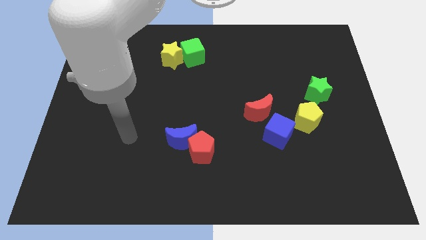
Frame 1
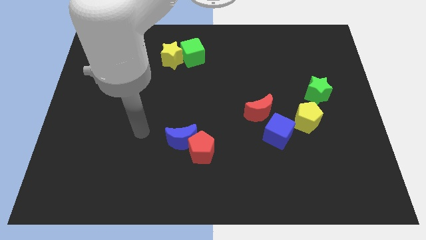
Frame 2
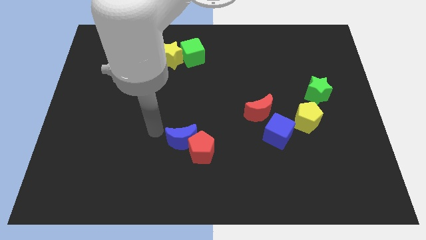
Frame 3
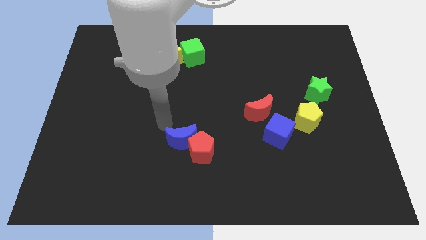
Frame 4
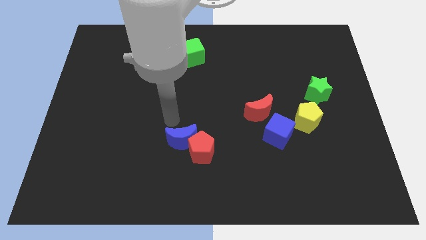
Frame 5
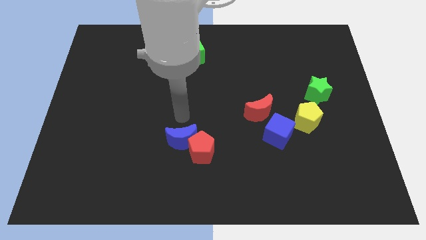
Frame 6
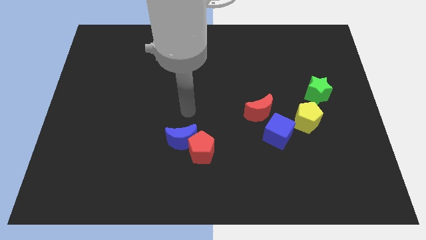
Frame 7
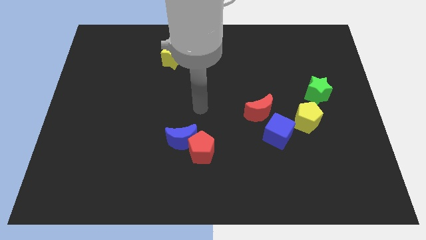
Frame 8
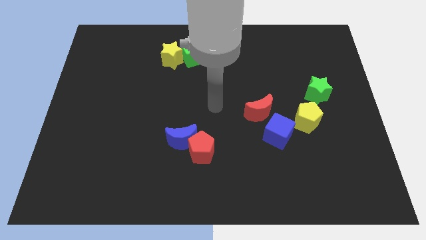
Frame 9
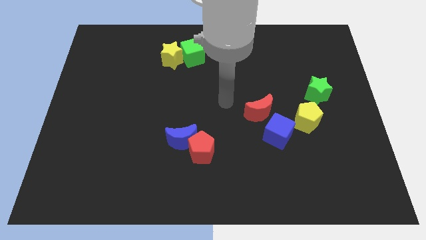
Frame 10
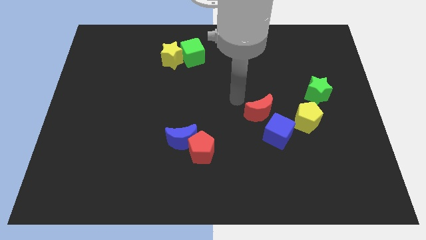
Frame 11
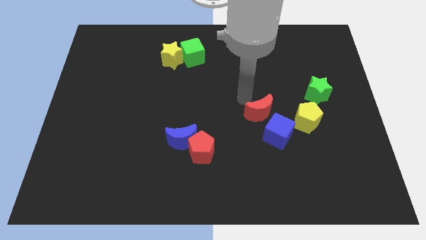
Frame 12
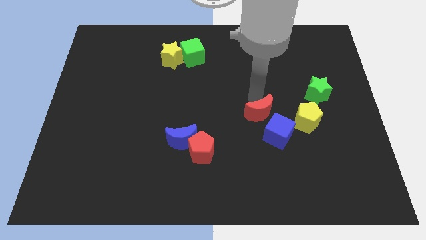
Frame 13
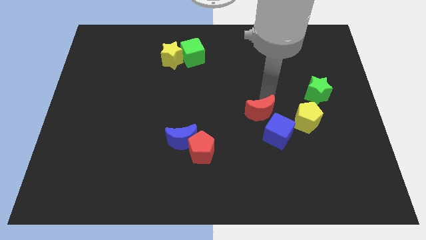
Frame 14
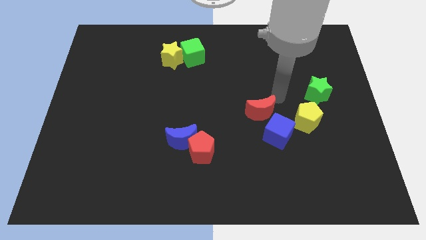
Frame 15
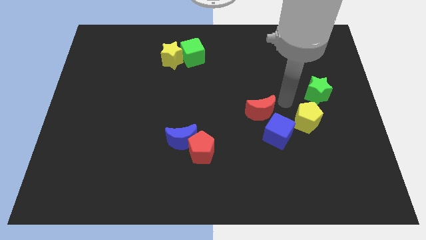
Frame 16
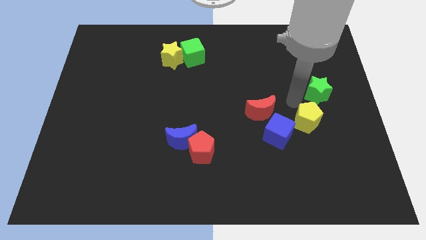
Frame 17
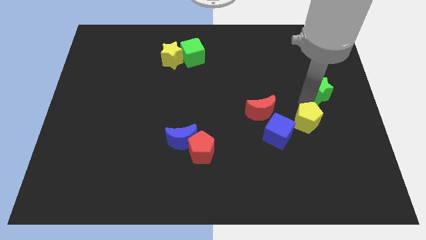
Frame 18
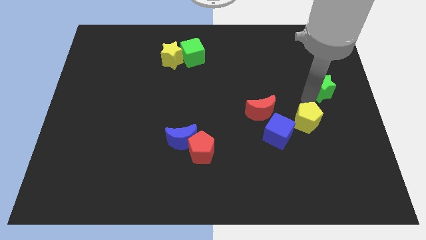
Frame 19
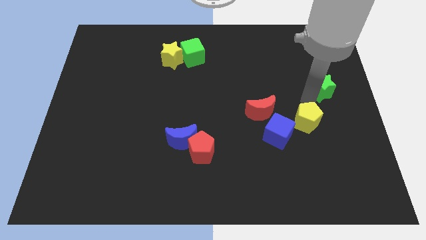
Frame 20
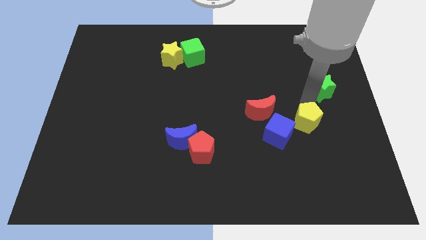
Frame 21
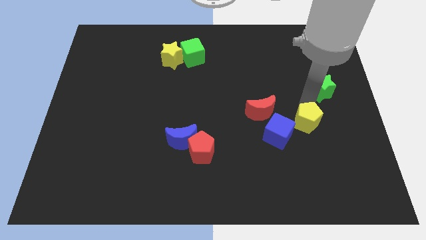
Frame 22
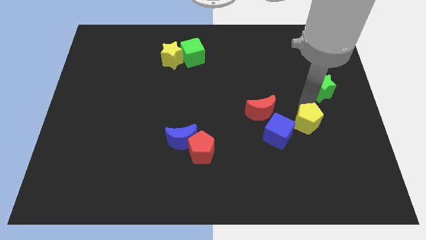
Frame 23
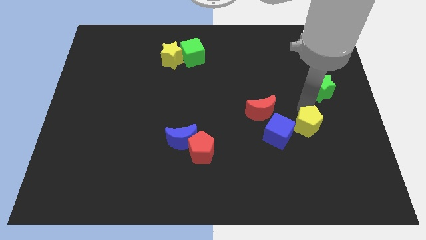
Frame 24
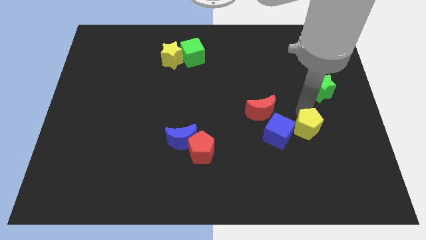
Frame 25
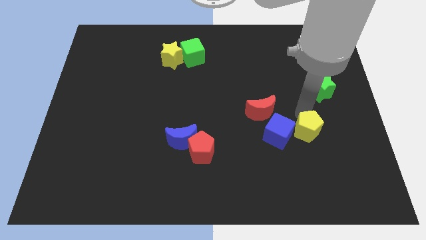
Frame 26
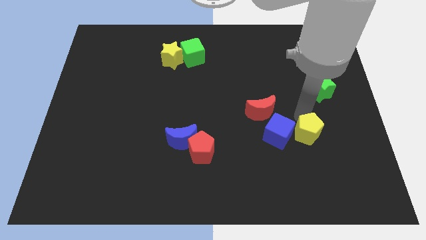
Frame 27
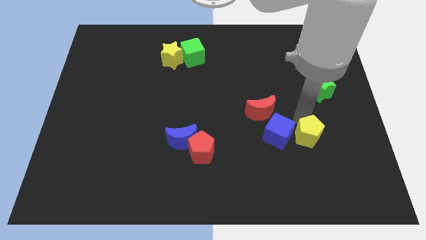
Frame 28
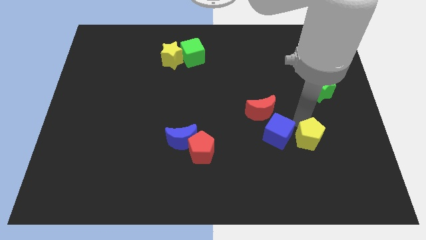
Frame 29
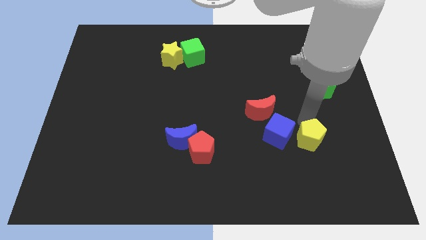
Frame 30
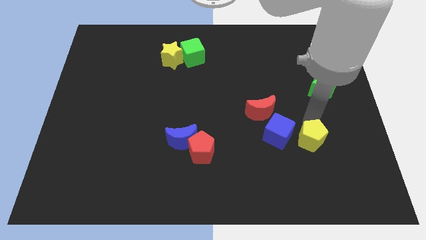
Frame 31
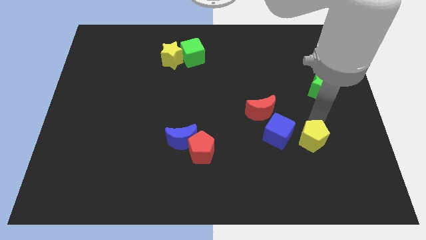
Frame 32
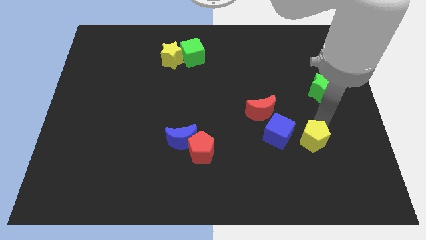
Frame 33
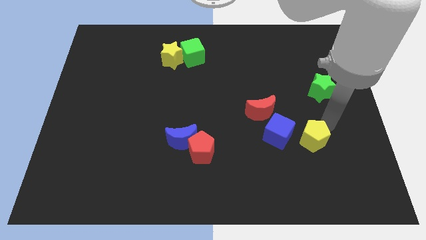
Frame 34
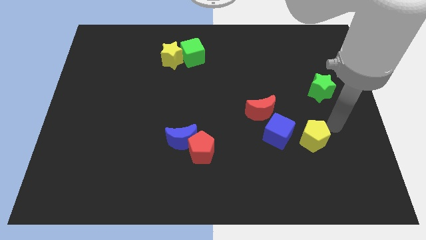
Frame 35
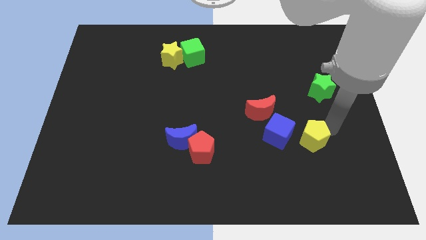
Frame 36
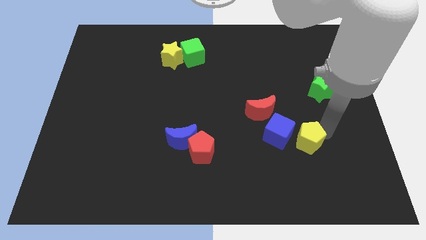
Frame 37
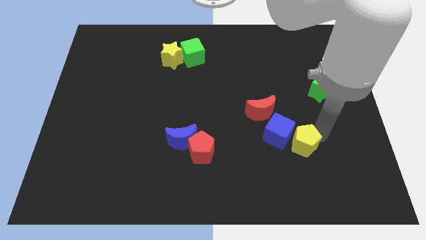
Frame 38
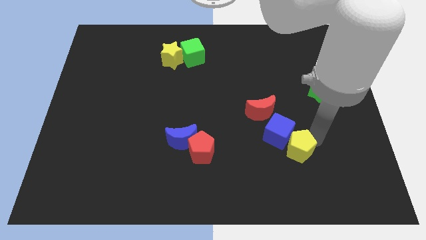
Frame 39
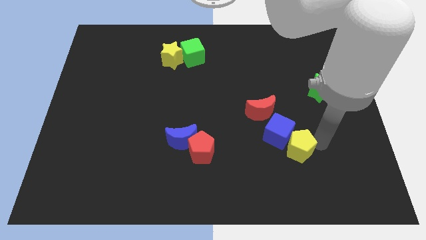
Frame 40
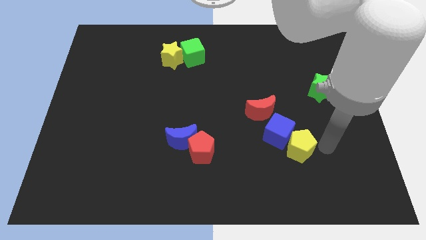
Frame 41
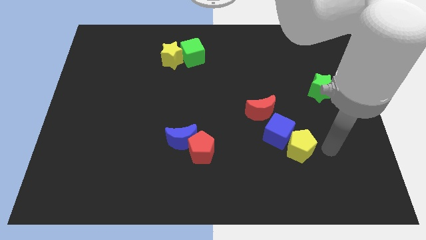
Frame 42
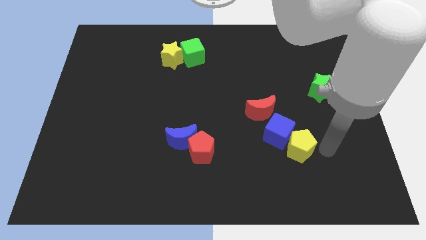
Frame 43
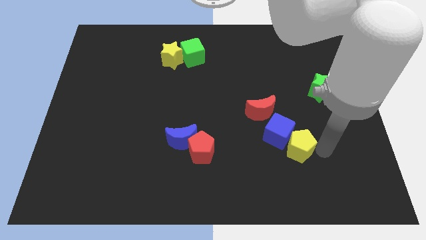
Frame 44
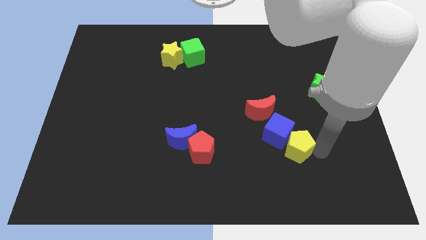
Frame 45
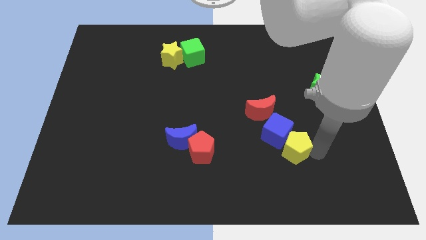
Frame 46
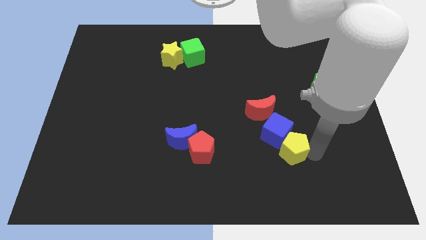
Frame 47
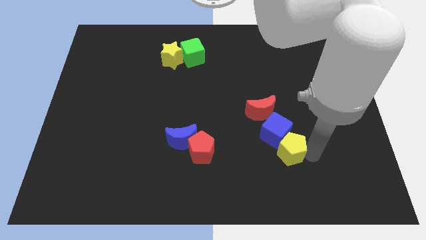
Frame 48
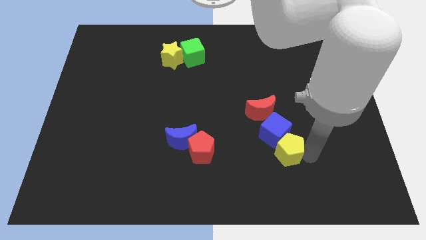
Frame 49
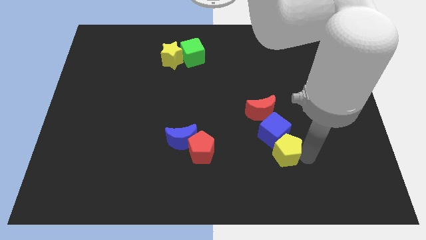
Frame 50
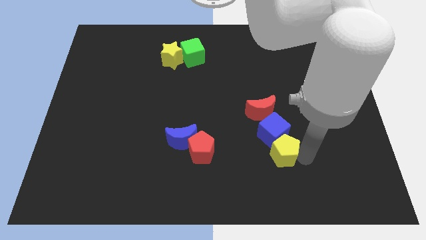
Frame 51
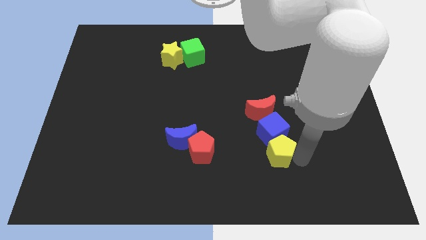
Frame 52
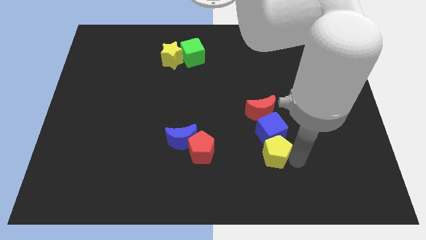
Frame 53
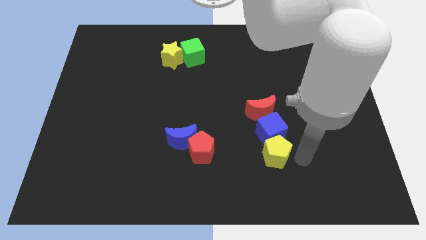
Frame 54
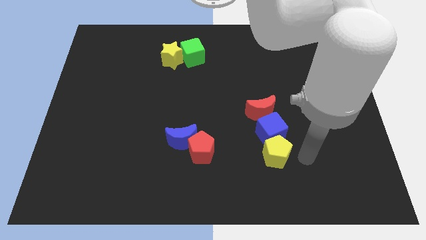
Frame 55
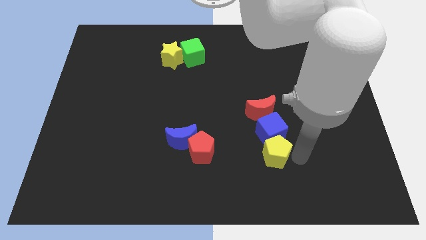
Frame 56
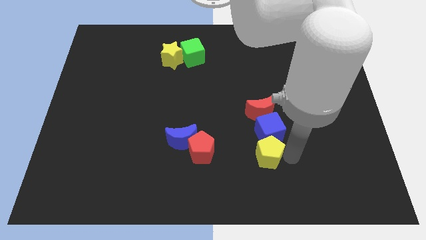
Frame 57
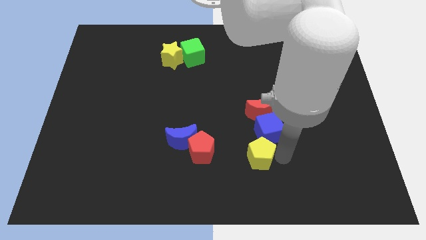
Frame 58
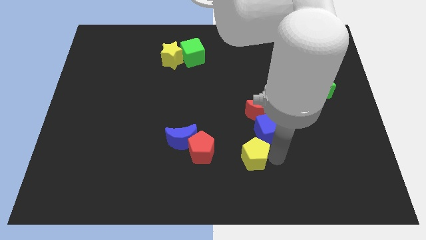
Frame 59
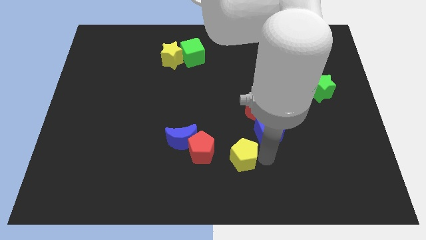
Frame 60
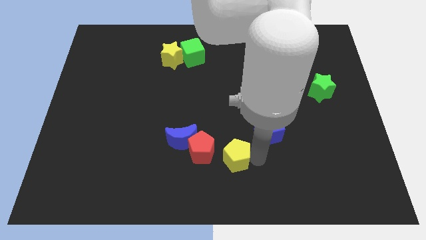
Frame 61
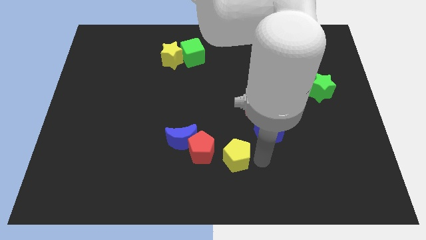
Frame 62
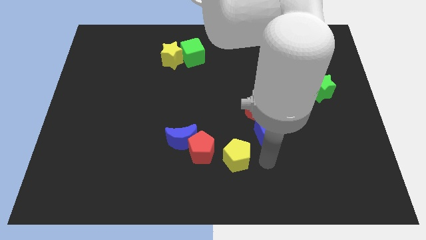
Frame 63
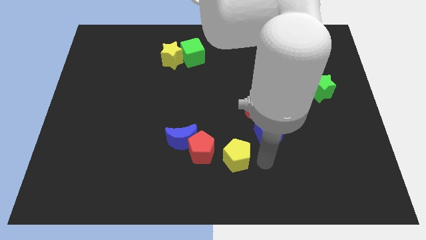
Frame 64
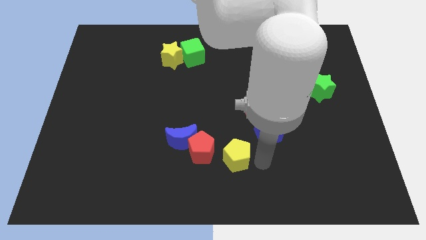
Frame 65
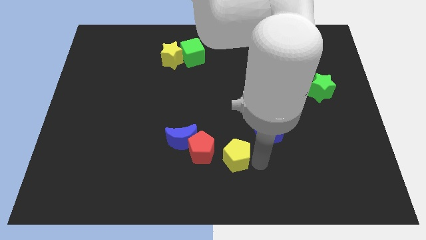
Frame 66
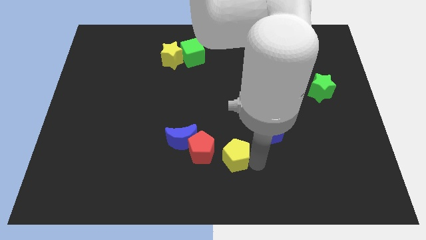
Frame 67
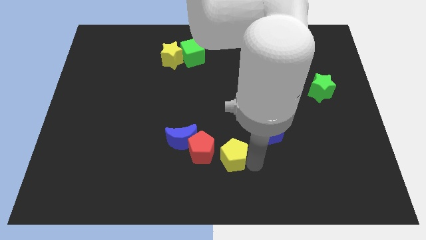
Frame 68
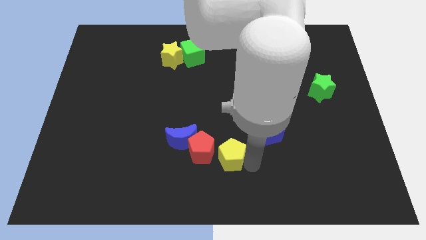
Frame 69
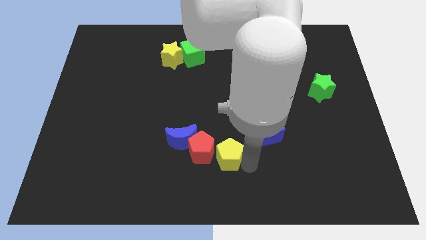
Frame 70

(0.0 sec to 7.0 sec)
push the yellow pentagon towards the red pentagon

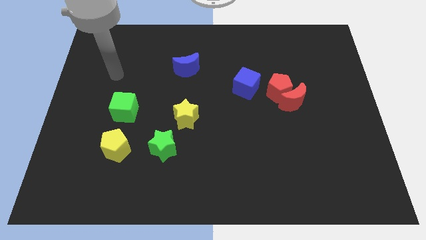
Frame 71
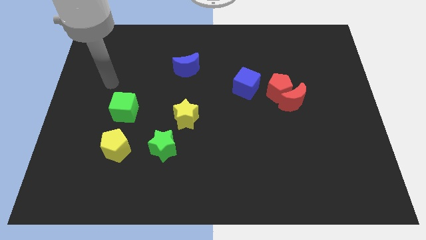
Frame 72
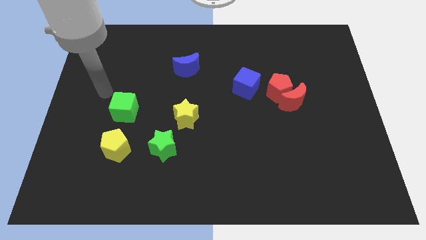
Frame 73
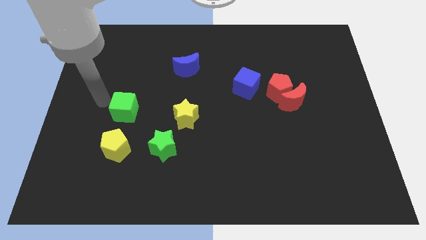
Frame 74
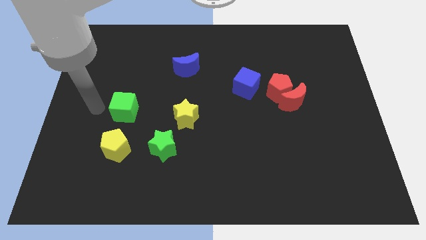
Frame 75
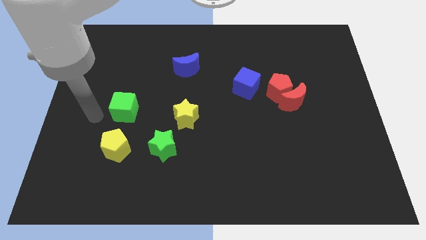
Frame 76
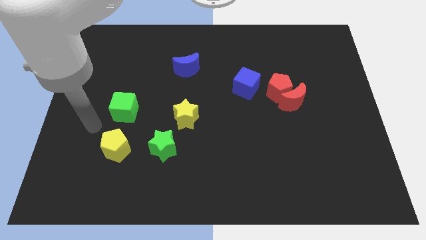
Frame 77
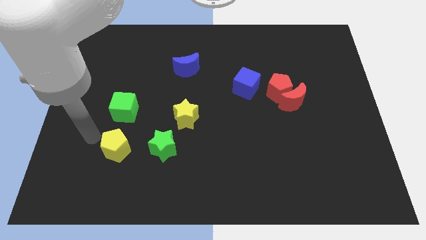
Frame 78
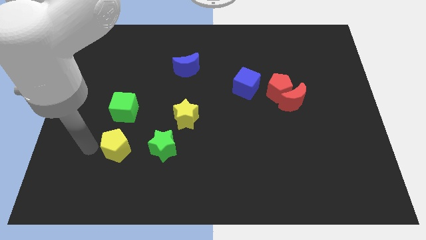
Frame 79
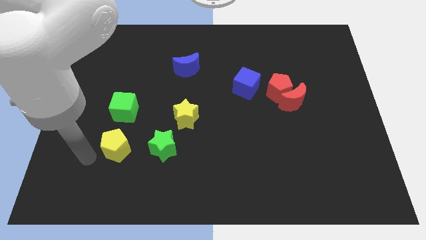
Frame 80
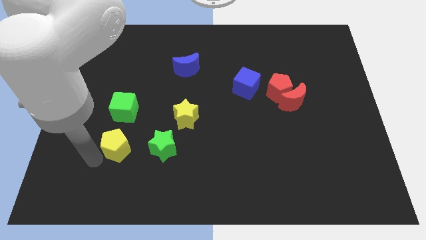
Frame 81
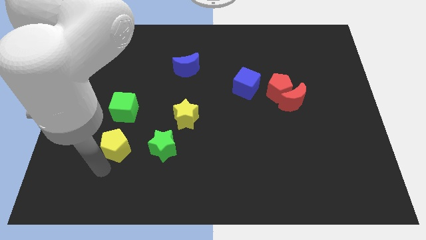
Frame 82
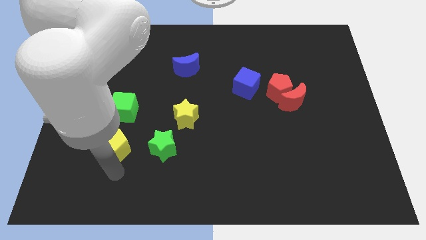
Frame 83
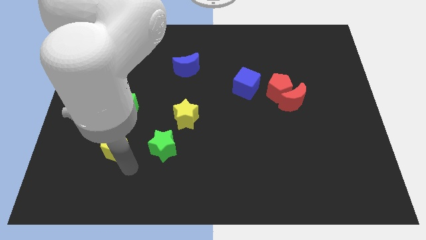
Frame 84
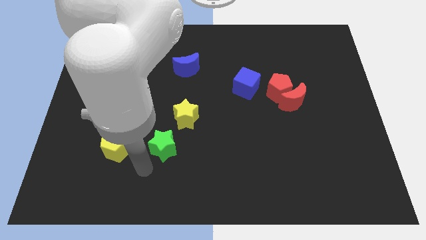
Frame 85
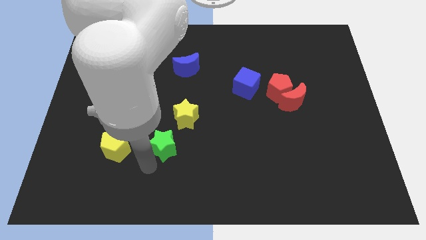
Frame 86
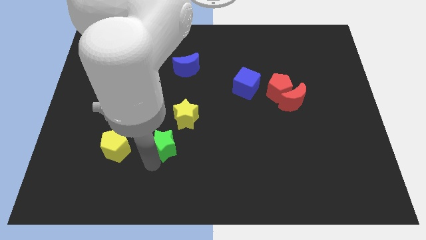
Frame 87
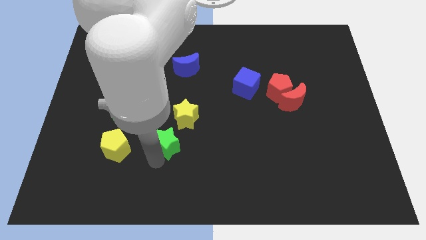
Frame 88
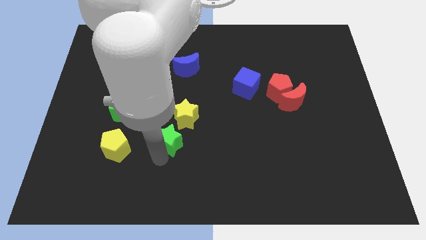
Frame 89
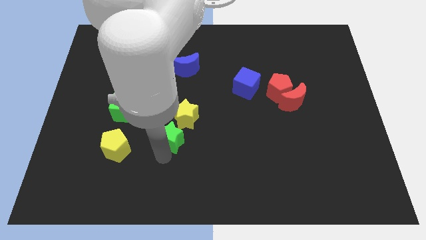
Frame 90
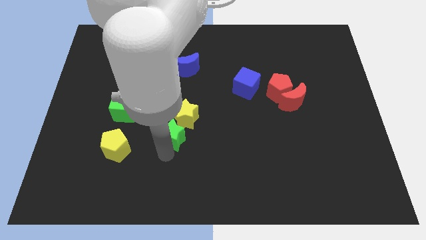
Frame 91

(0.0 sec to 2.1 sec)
push the green star close to the yellow star
